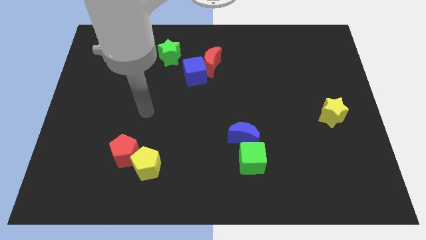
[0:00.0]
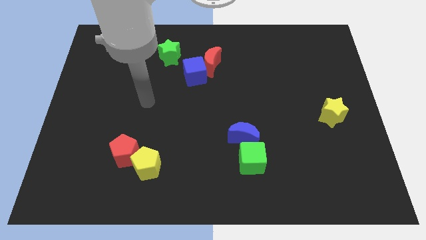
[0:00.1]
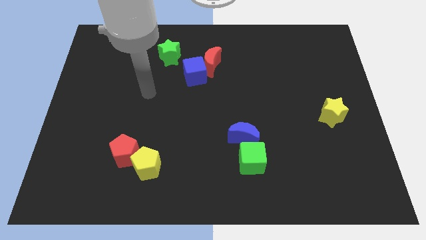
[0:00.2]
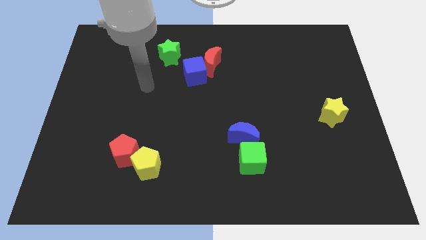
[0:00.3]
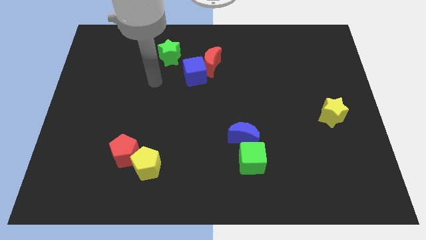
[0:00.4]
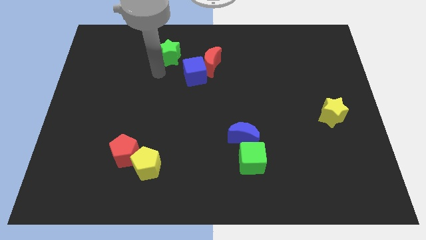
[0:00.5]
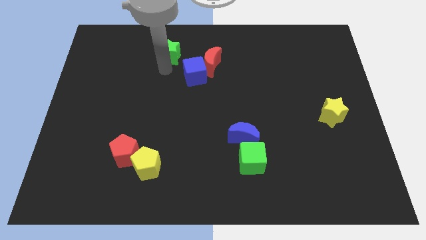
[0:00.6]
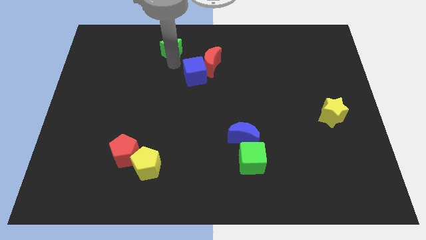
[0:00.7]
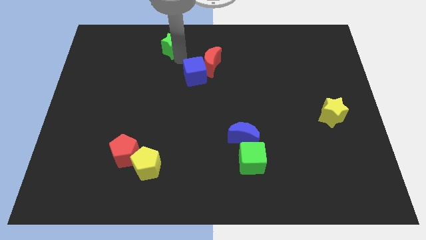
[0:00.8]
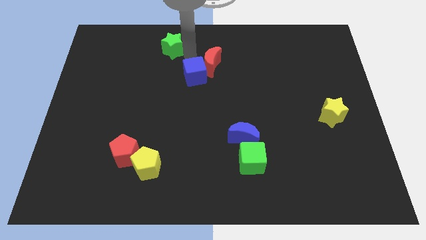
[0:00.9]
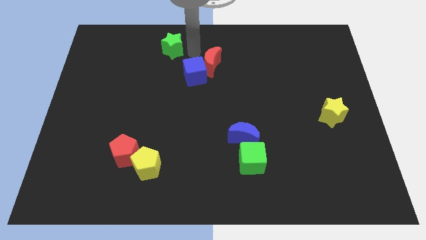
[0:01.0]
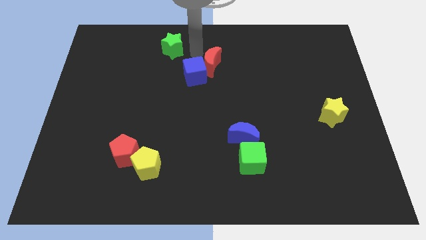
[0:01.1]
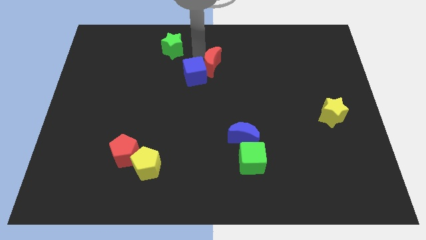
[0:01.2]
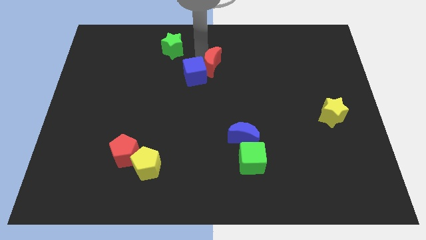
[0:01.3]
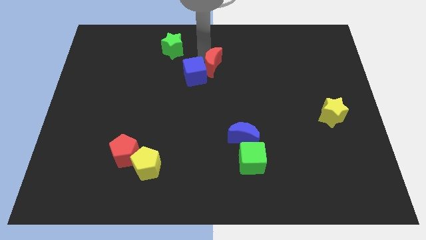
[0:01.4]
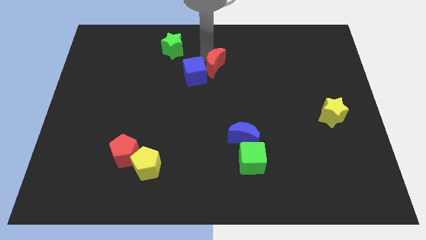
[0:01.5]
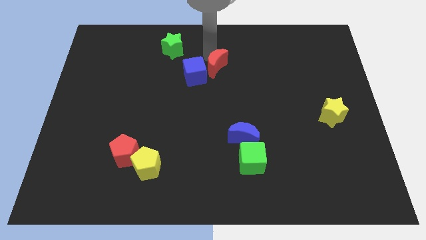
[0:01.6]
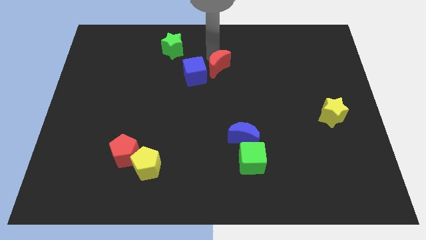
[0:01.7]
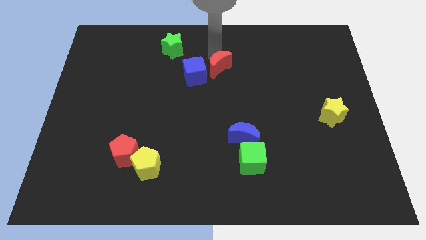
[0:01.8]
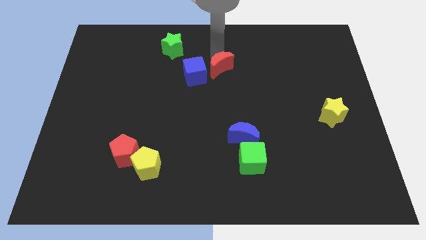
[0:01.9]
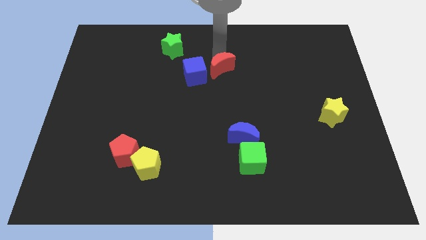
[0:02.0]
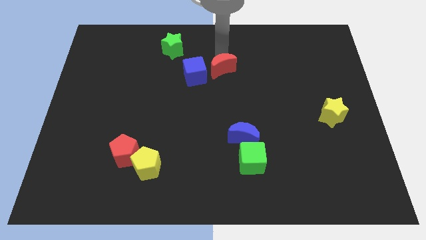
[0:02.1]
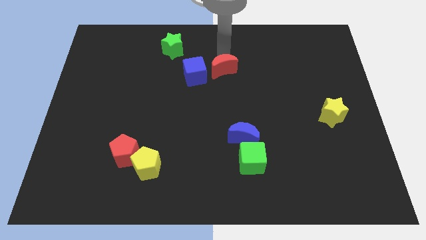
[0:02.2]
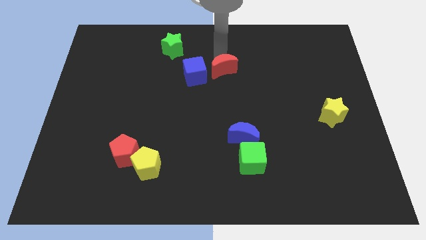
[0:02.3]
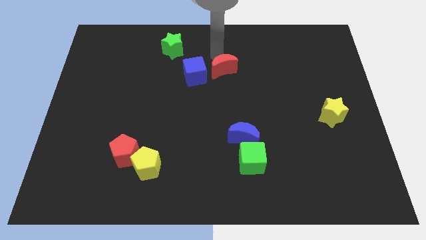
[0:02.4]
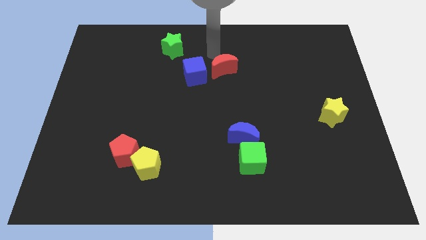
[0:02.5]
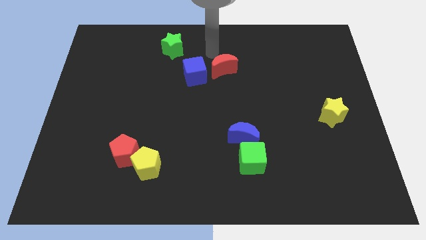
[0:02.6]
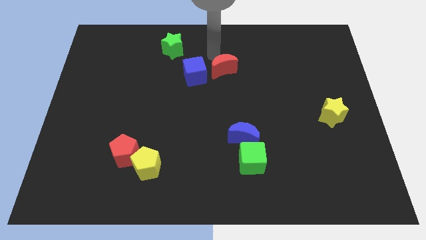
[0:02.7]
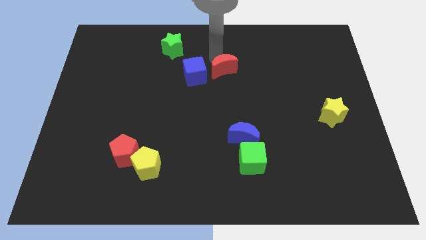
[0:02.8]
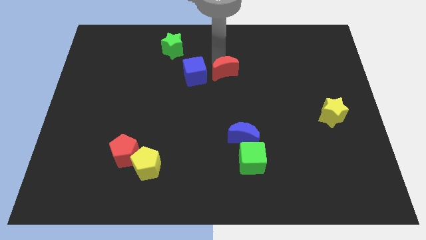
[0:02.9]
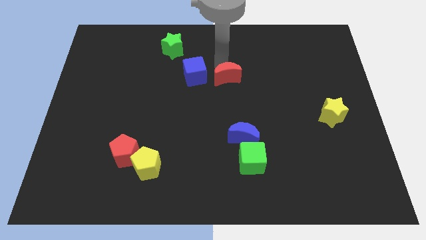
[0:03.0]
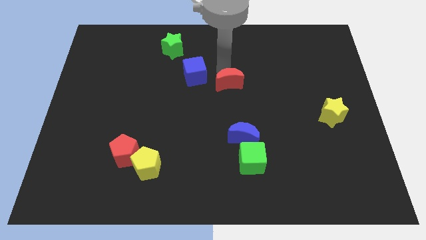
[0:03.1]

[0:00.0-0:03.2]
slightly push the red moon down and right diagonally

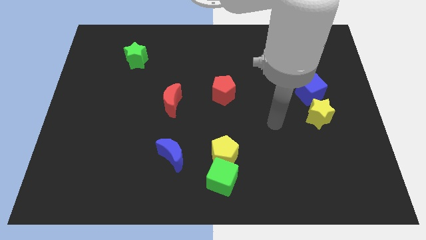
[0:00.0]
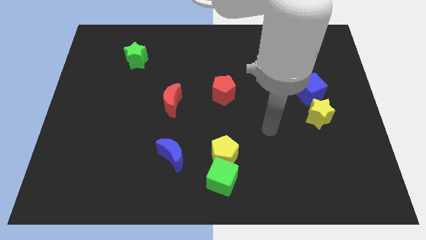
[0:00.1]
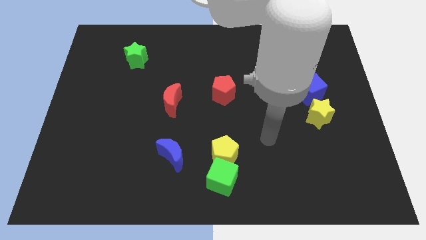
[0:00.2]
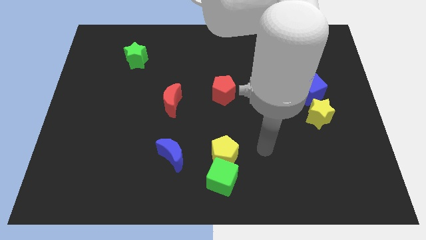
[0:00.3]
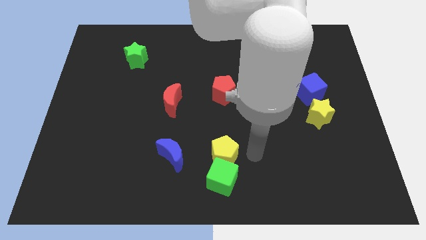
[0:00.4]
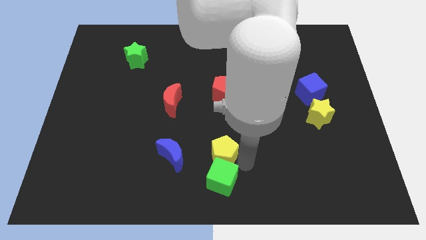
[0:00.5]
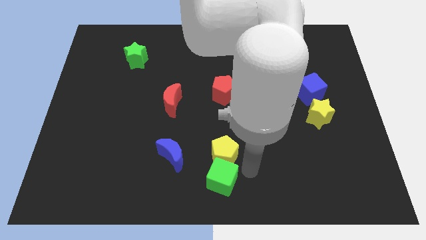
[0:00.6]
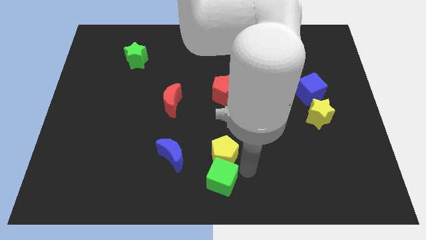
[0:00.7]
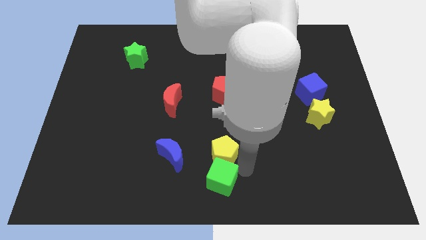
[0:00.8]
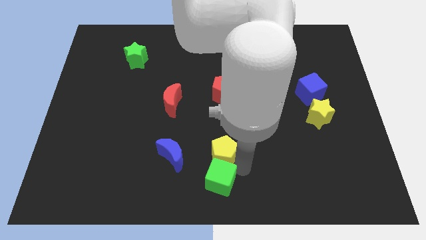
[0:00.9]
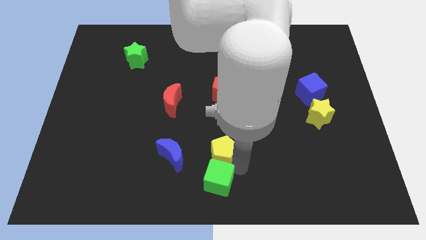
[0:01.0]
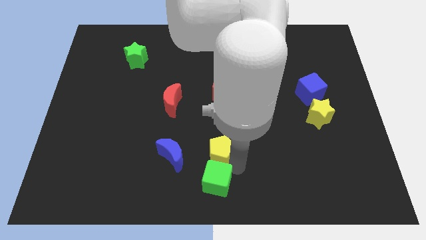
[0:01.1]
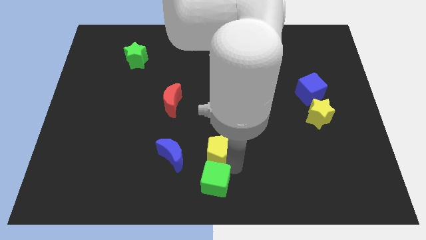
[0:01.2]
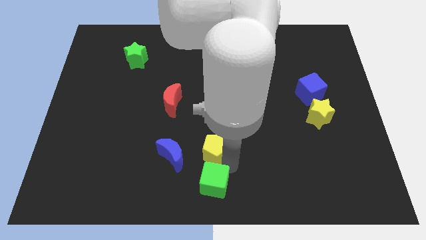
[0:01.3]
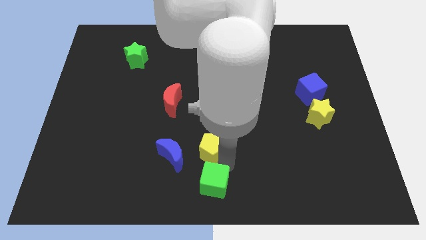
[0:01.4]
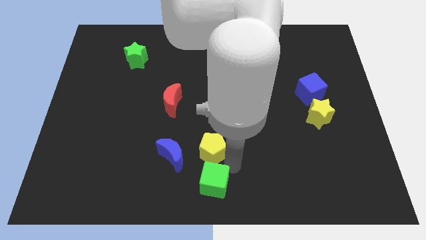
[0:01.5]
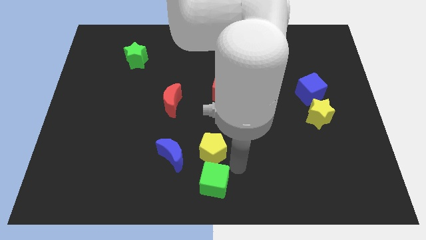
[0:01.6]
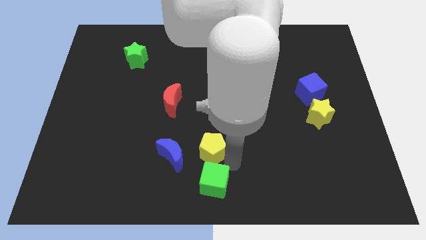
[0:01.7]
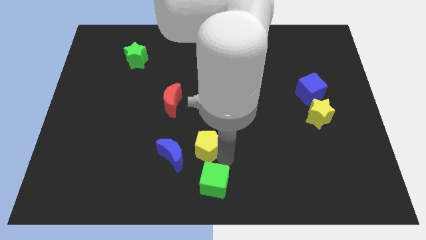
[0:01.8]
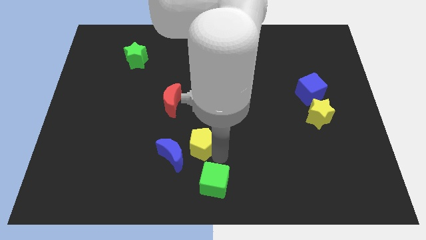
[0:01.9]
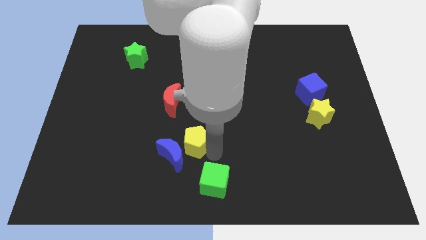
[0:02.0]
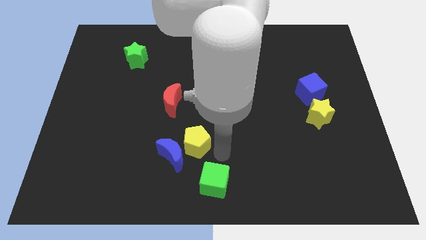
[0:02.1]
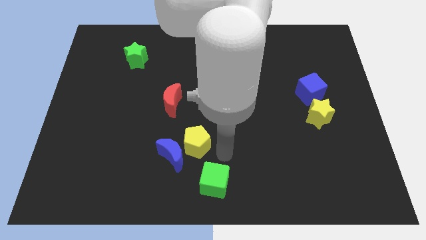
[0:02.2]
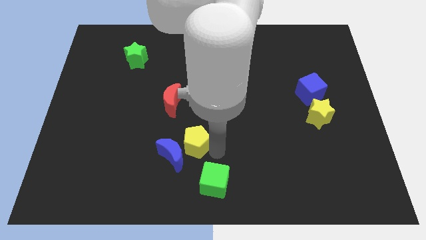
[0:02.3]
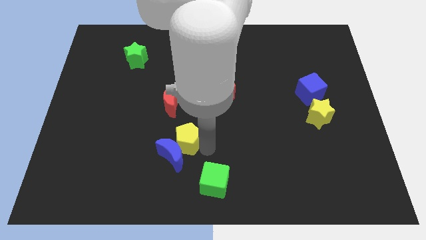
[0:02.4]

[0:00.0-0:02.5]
slightly slide the yellow pentagon left

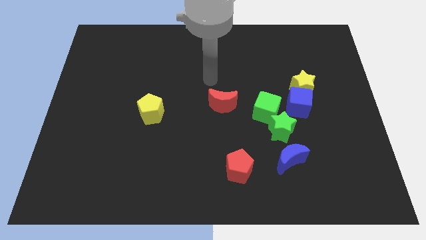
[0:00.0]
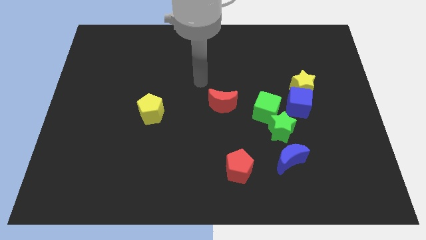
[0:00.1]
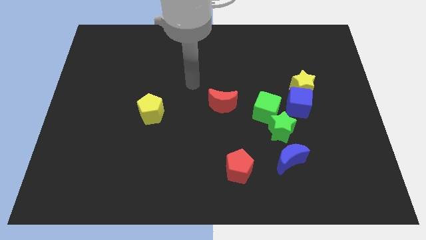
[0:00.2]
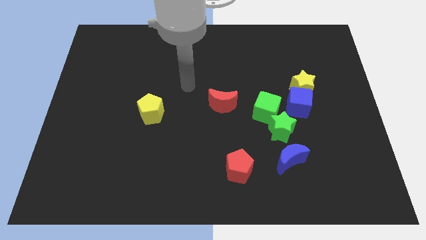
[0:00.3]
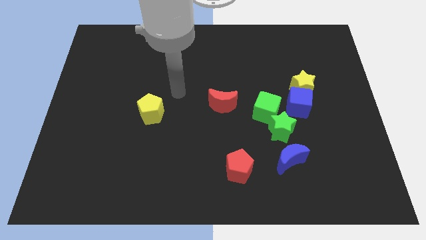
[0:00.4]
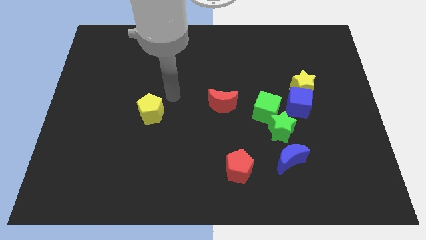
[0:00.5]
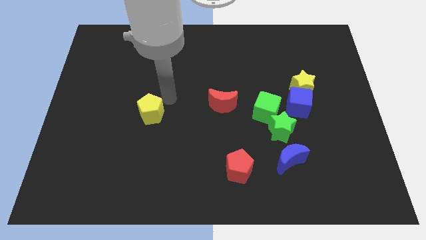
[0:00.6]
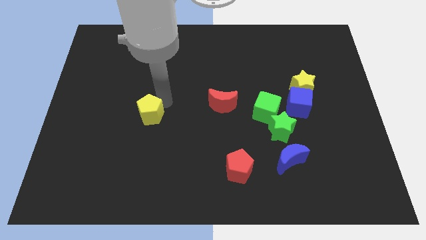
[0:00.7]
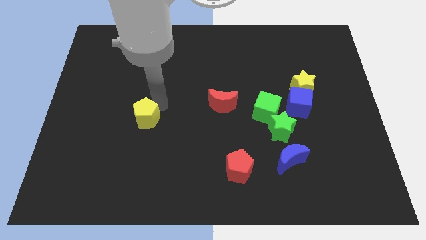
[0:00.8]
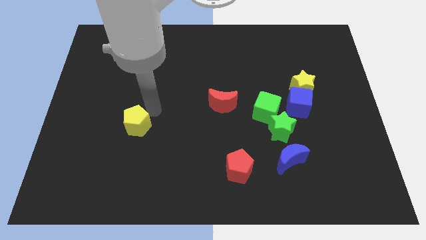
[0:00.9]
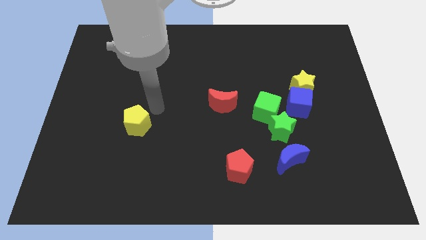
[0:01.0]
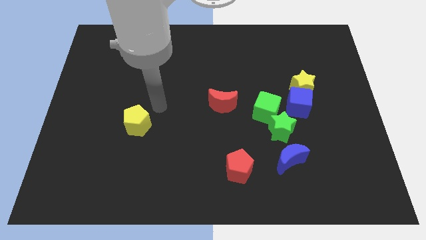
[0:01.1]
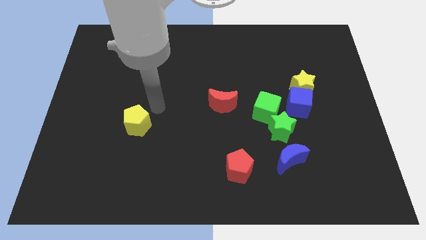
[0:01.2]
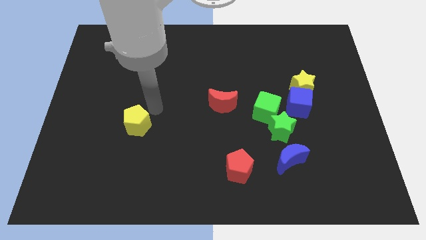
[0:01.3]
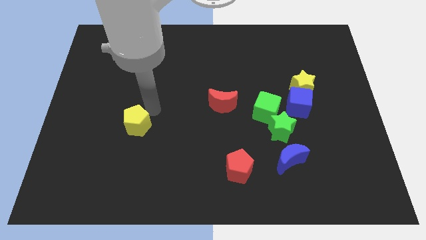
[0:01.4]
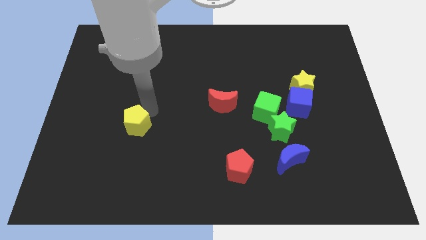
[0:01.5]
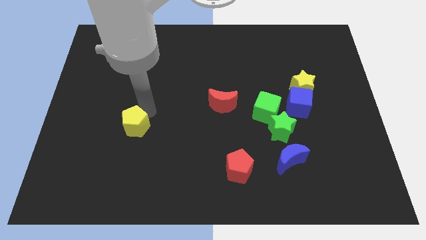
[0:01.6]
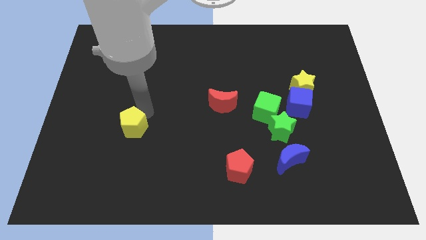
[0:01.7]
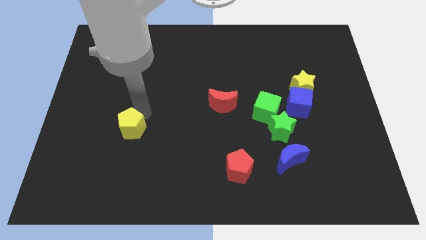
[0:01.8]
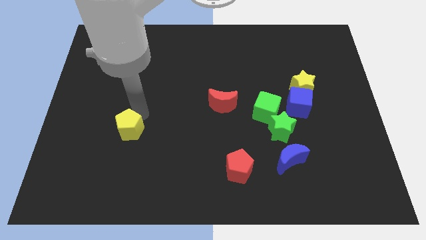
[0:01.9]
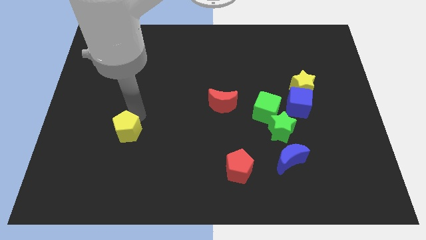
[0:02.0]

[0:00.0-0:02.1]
slightly push the yellow pentagon down and then left
